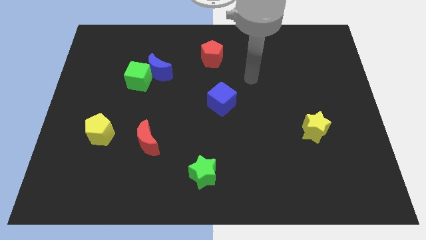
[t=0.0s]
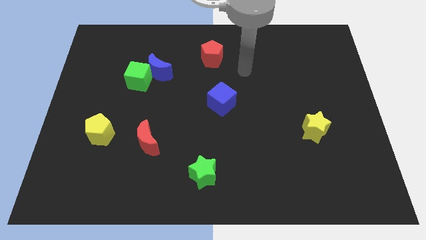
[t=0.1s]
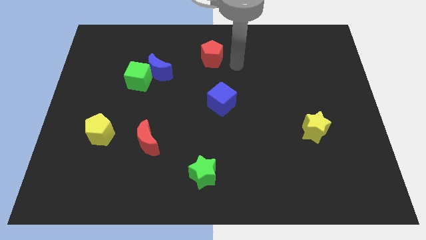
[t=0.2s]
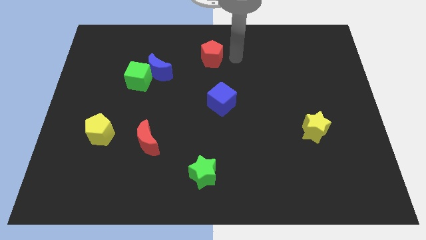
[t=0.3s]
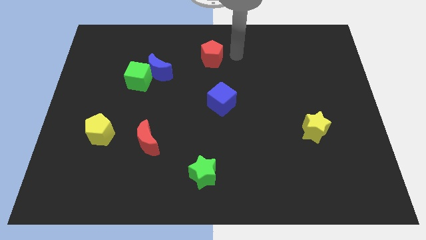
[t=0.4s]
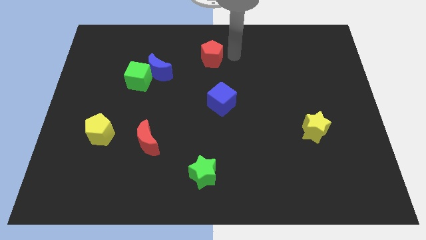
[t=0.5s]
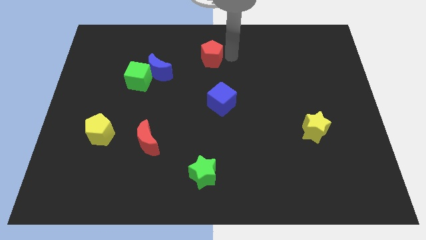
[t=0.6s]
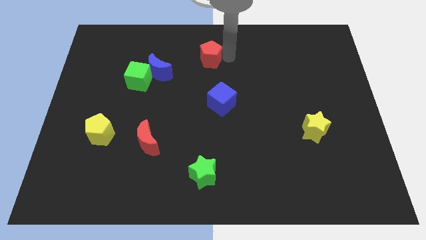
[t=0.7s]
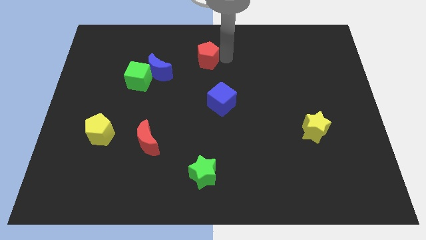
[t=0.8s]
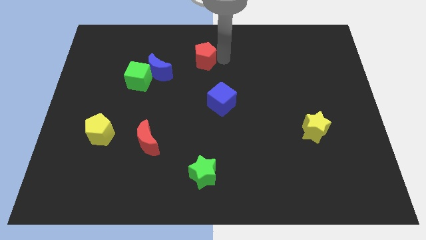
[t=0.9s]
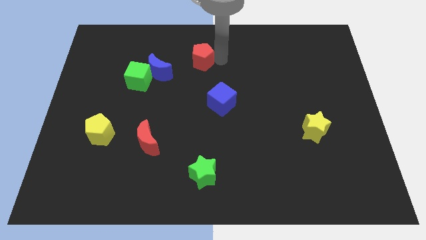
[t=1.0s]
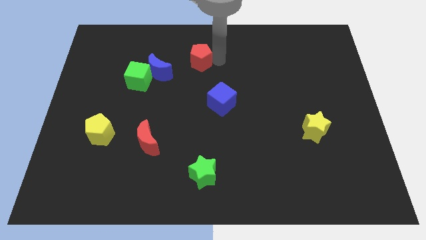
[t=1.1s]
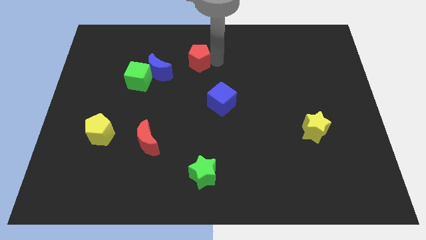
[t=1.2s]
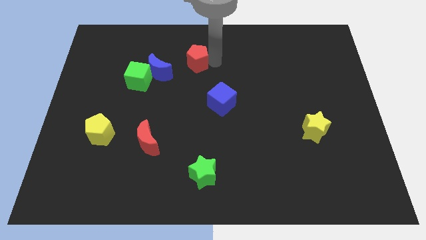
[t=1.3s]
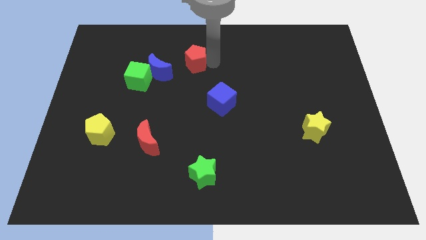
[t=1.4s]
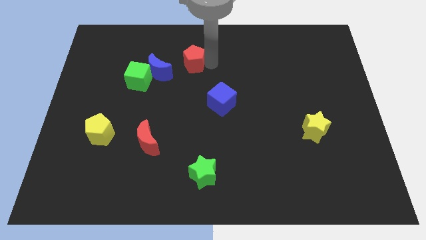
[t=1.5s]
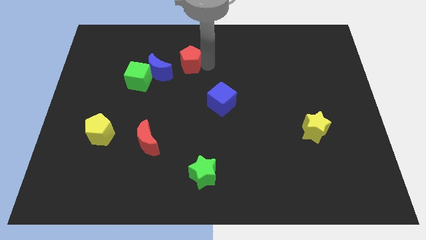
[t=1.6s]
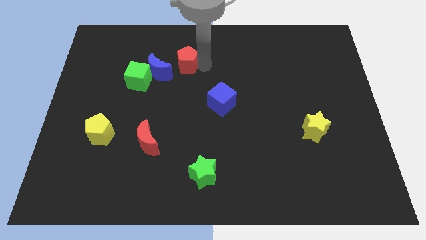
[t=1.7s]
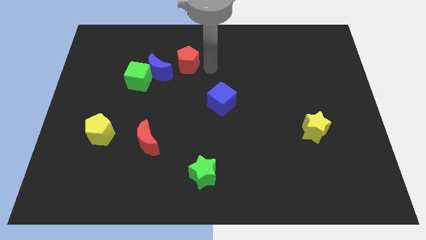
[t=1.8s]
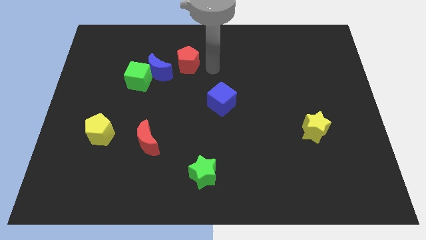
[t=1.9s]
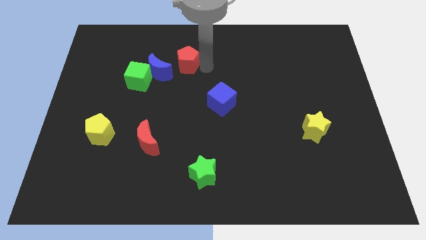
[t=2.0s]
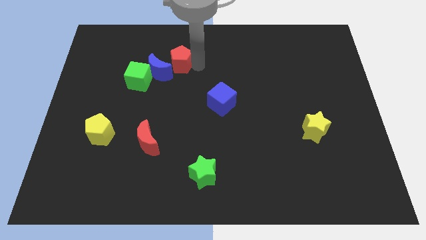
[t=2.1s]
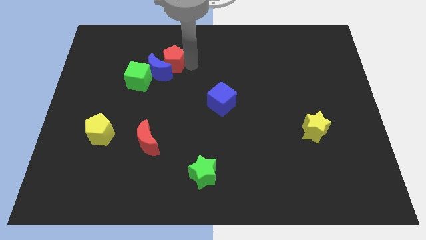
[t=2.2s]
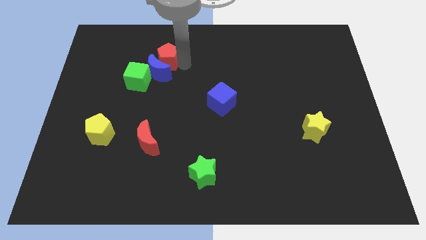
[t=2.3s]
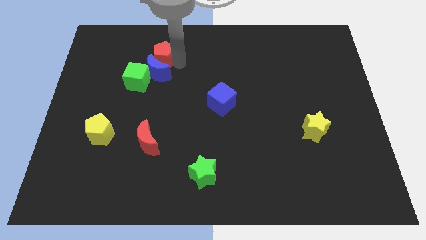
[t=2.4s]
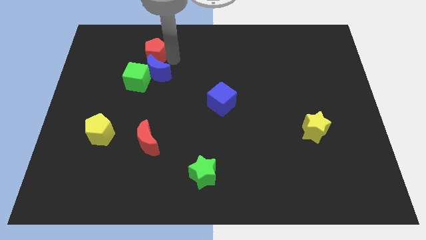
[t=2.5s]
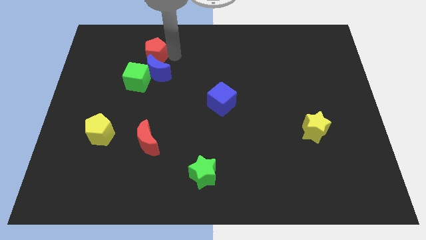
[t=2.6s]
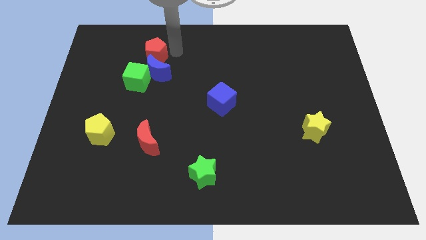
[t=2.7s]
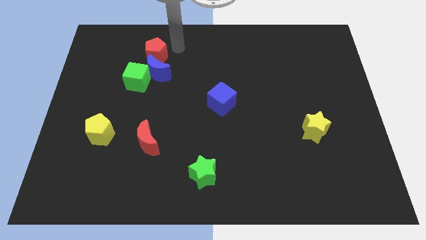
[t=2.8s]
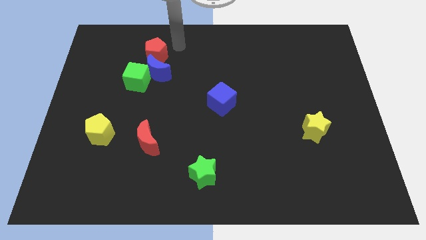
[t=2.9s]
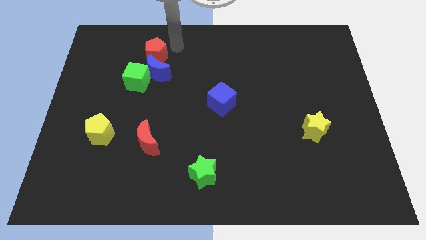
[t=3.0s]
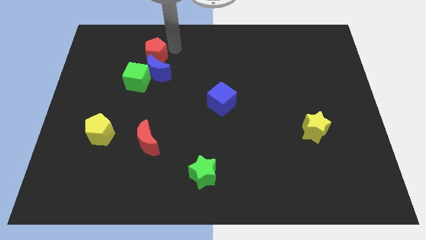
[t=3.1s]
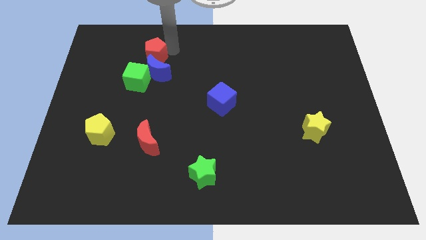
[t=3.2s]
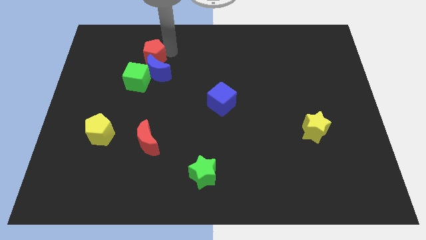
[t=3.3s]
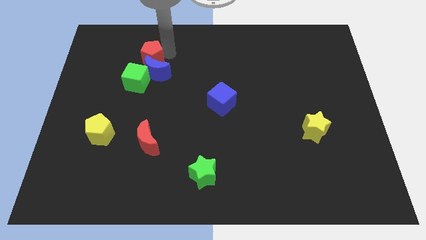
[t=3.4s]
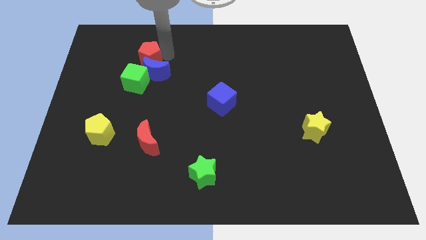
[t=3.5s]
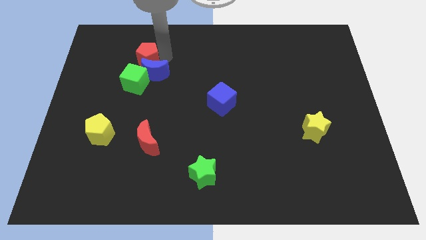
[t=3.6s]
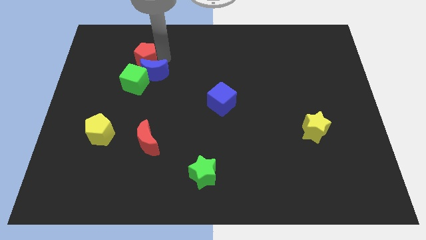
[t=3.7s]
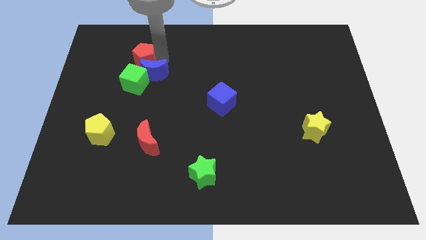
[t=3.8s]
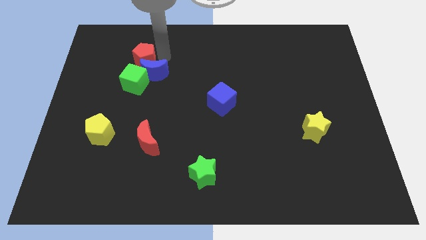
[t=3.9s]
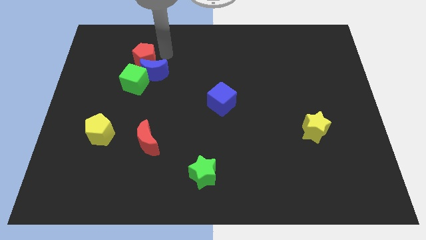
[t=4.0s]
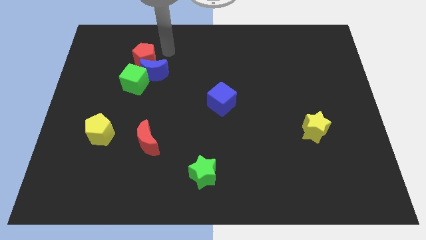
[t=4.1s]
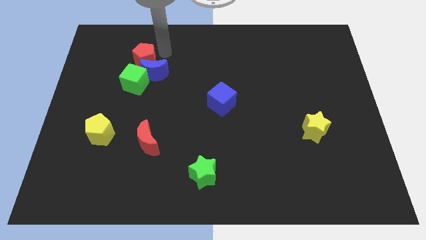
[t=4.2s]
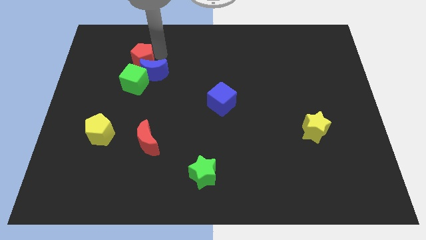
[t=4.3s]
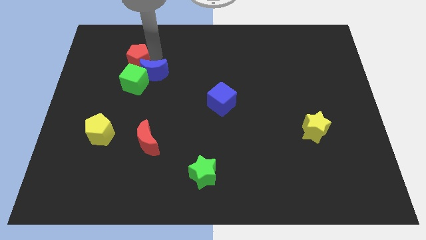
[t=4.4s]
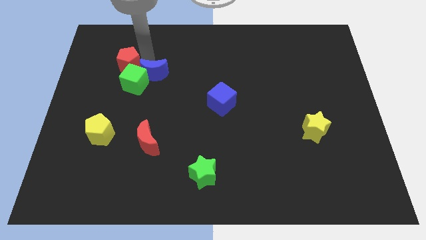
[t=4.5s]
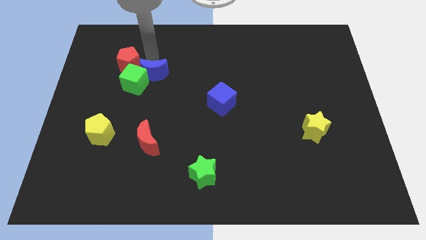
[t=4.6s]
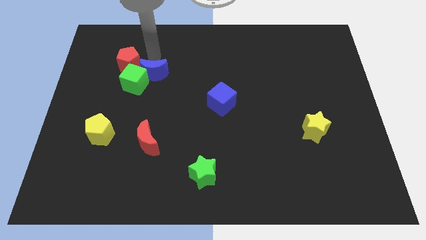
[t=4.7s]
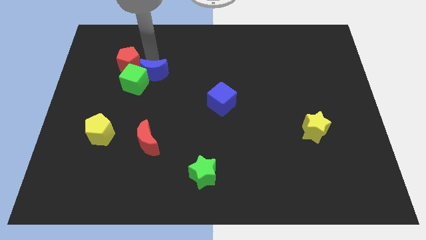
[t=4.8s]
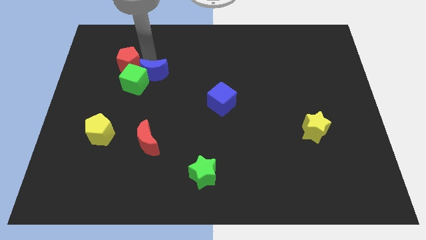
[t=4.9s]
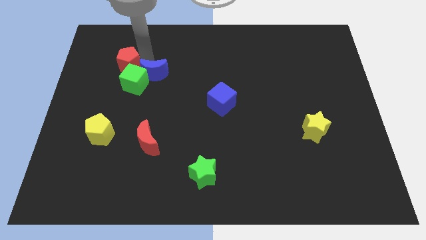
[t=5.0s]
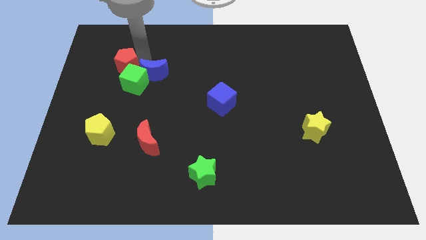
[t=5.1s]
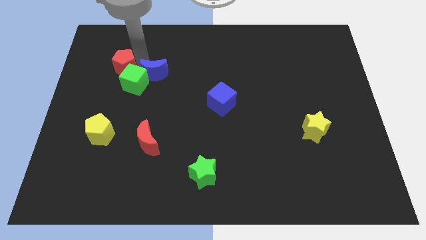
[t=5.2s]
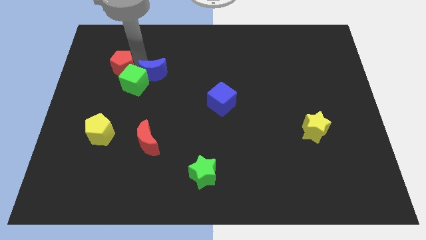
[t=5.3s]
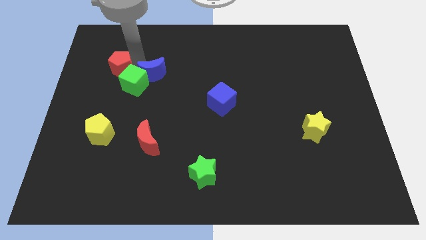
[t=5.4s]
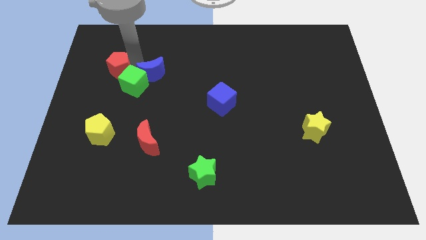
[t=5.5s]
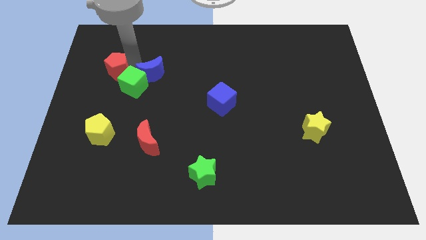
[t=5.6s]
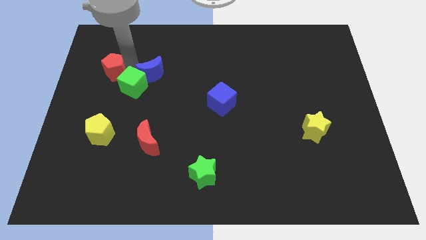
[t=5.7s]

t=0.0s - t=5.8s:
slide the red pentagon to the left side of the green cube

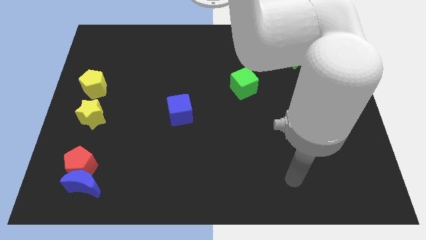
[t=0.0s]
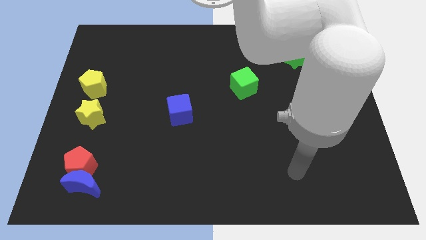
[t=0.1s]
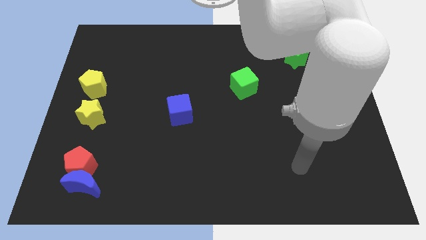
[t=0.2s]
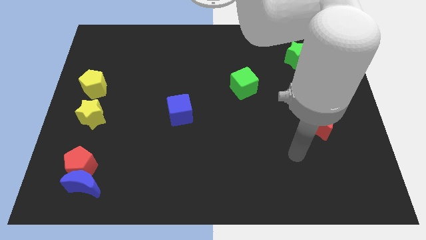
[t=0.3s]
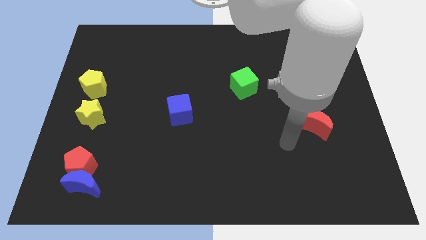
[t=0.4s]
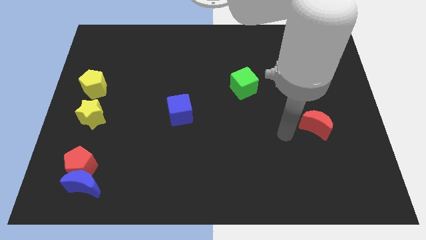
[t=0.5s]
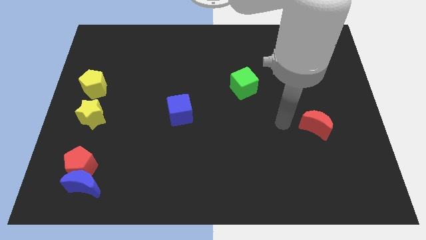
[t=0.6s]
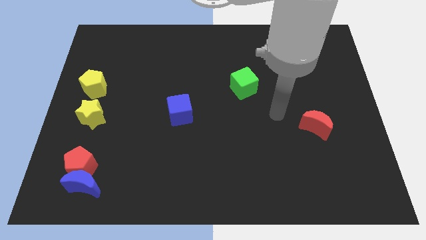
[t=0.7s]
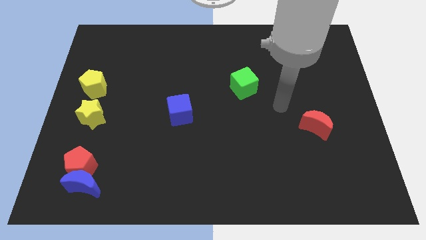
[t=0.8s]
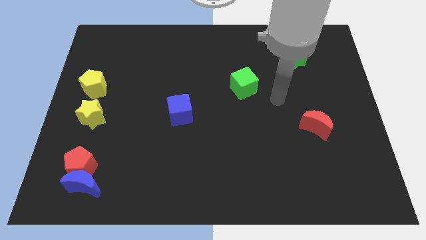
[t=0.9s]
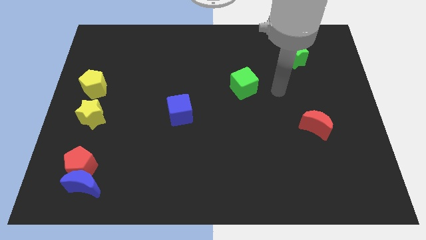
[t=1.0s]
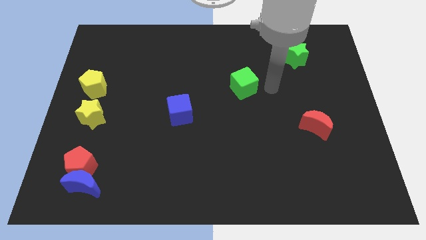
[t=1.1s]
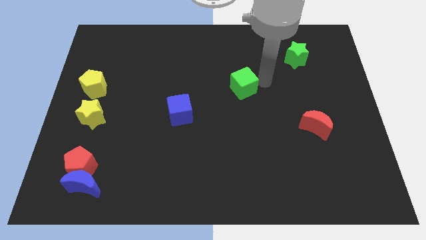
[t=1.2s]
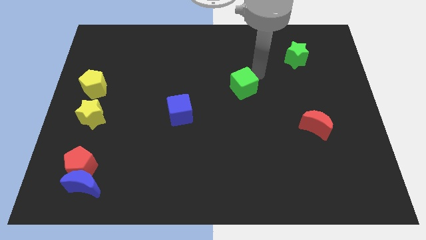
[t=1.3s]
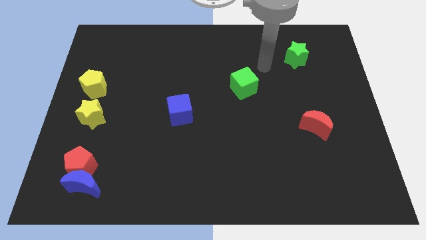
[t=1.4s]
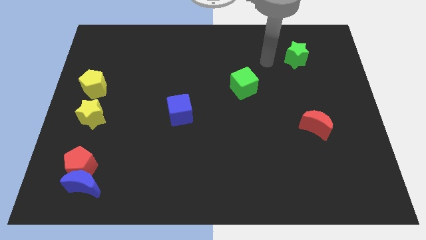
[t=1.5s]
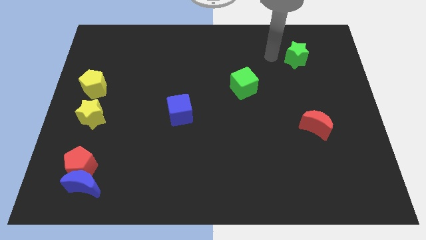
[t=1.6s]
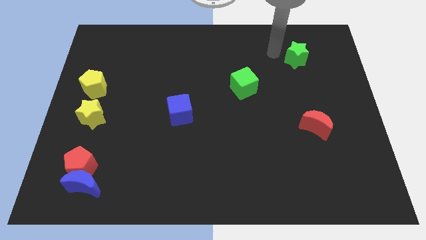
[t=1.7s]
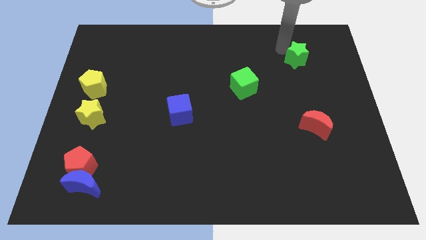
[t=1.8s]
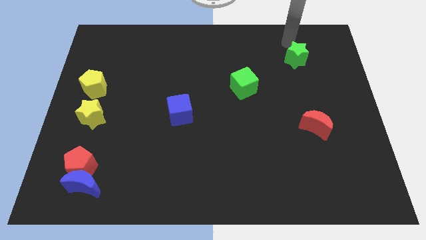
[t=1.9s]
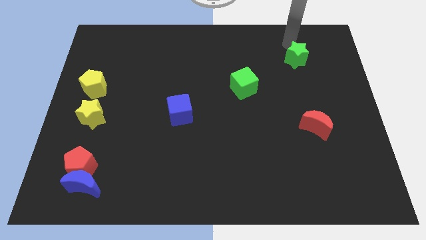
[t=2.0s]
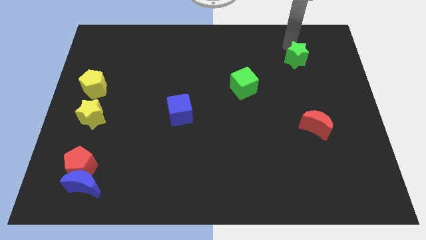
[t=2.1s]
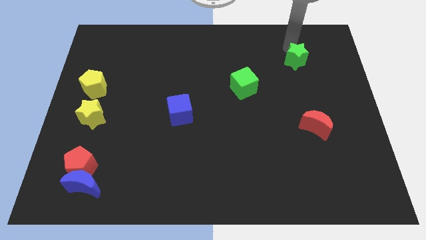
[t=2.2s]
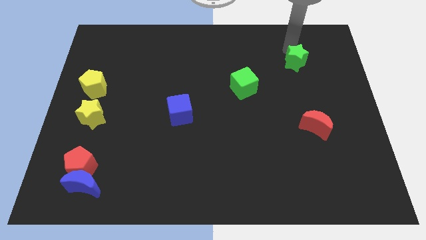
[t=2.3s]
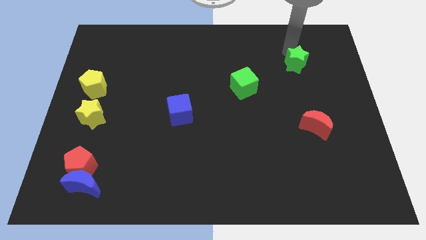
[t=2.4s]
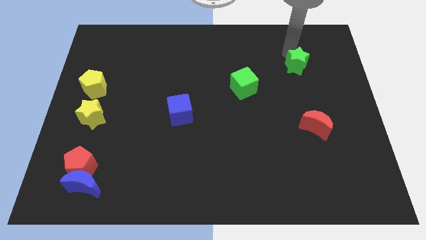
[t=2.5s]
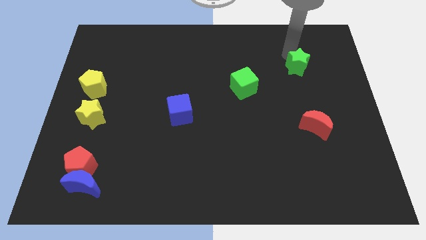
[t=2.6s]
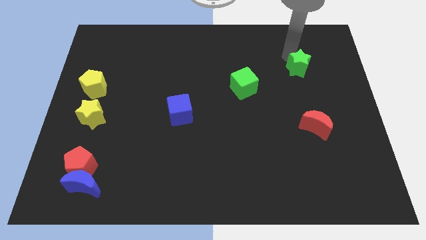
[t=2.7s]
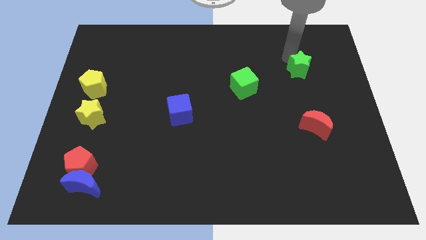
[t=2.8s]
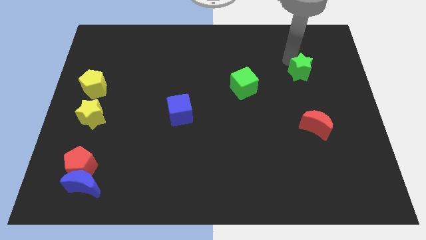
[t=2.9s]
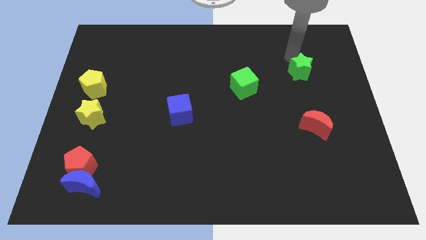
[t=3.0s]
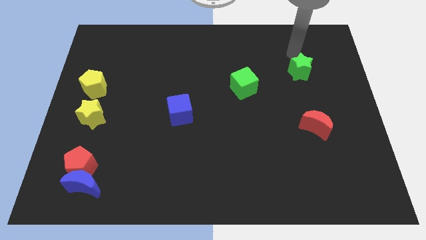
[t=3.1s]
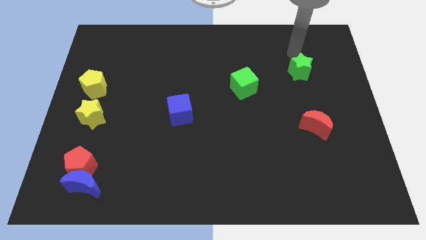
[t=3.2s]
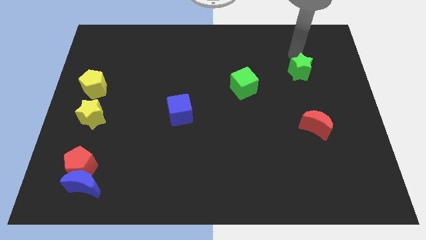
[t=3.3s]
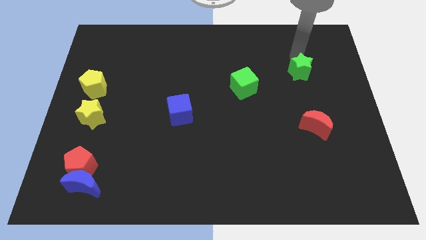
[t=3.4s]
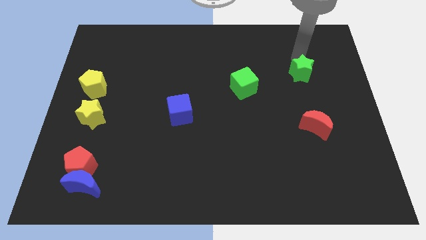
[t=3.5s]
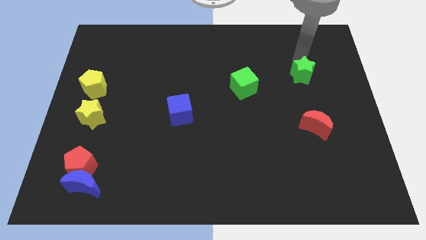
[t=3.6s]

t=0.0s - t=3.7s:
move the green star to the top side of the red moon
